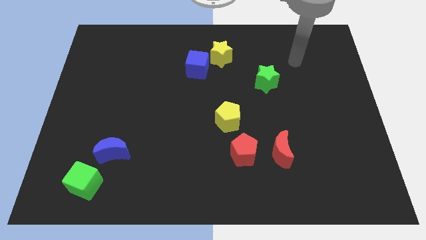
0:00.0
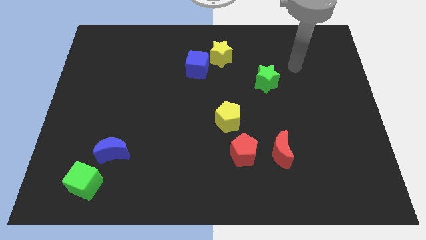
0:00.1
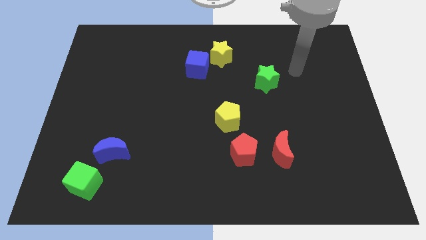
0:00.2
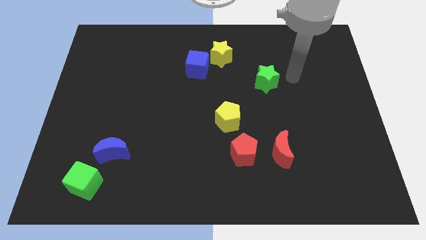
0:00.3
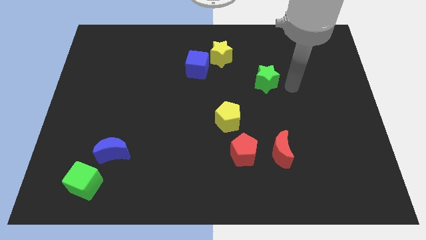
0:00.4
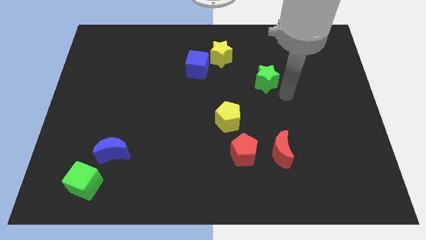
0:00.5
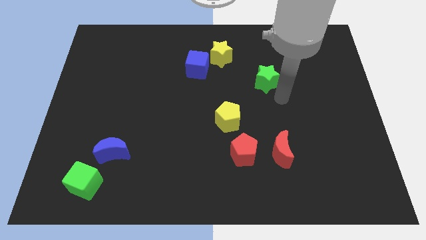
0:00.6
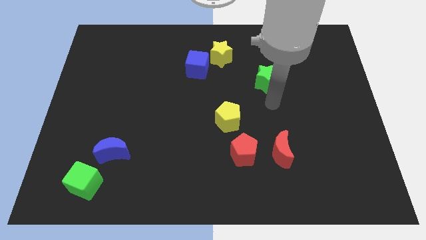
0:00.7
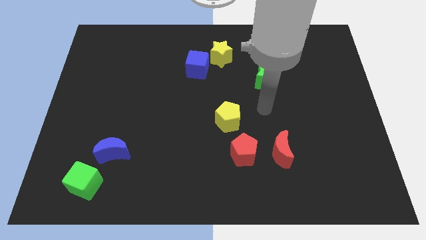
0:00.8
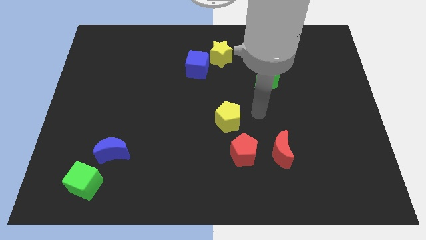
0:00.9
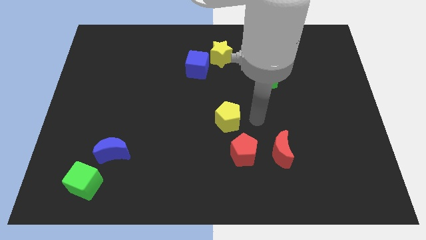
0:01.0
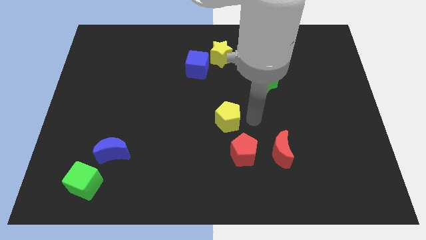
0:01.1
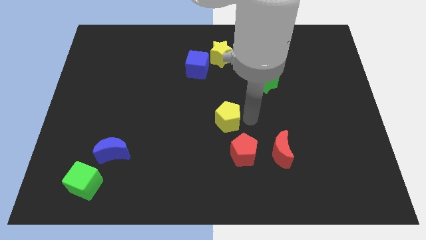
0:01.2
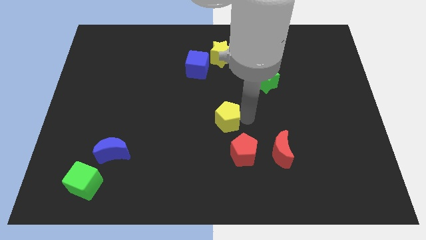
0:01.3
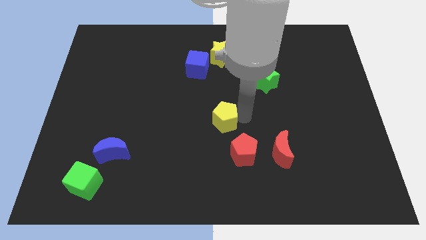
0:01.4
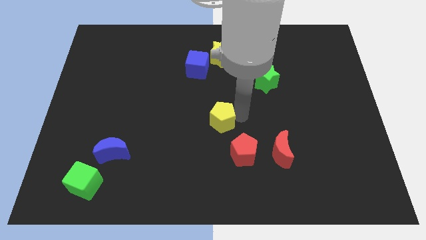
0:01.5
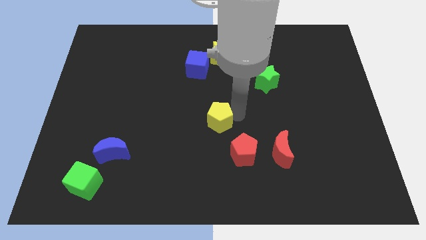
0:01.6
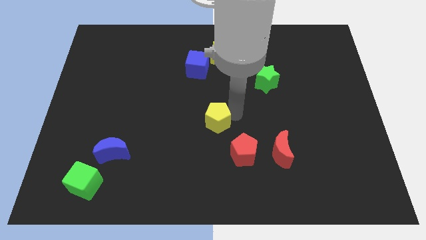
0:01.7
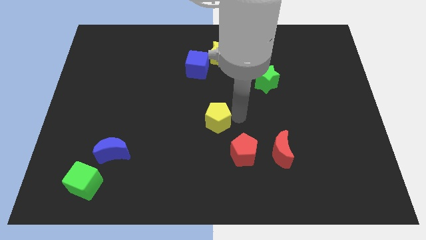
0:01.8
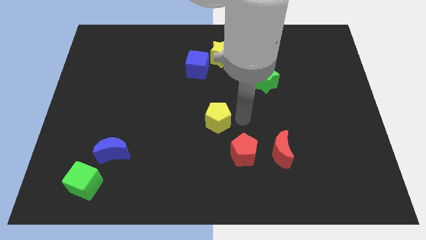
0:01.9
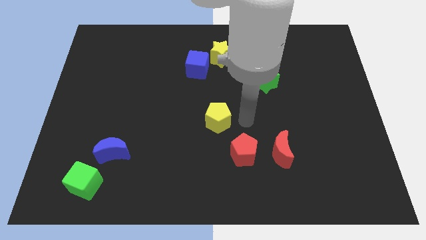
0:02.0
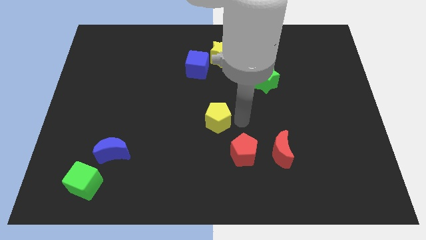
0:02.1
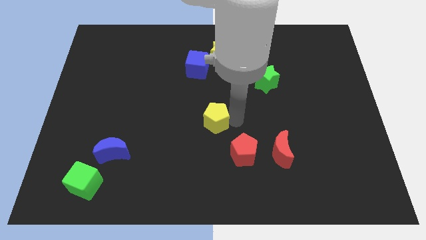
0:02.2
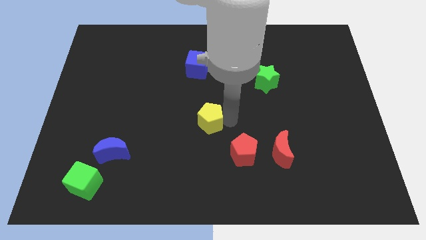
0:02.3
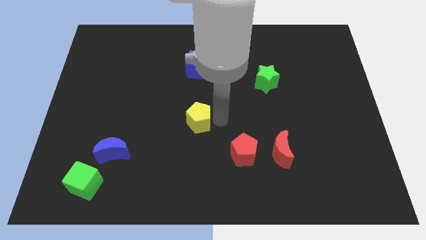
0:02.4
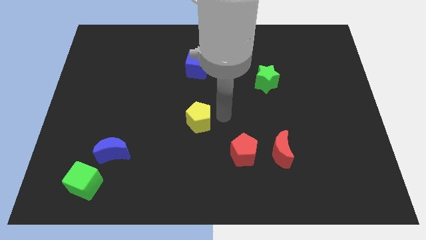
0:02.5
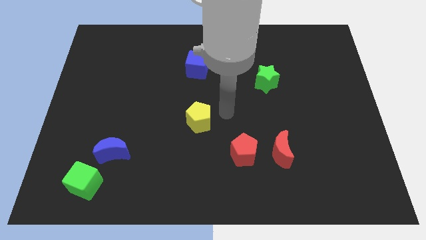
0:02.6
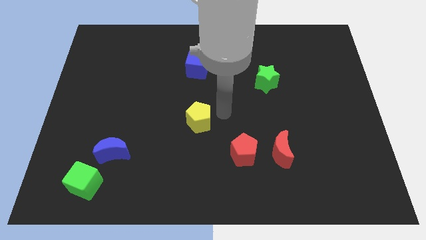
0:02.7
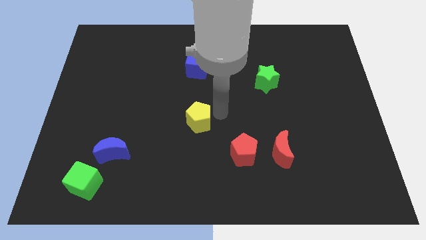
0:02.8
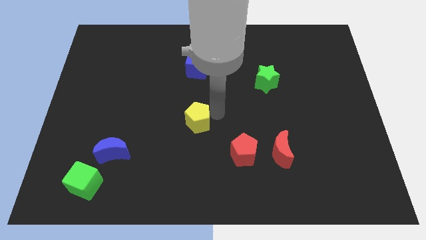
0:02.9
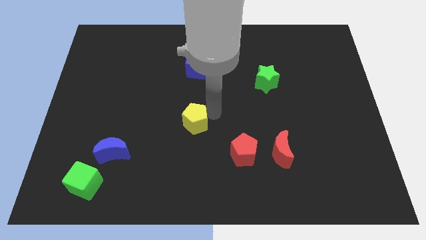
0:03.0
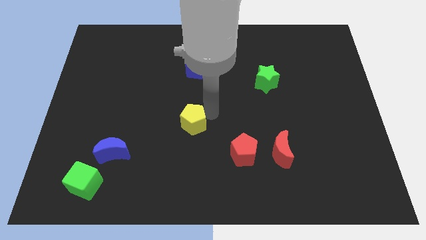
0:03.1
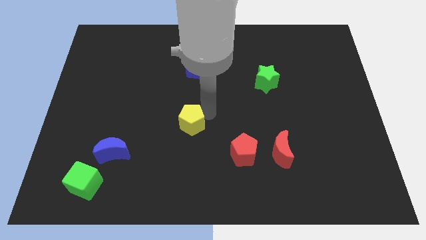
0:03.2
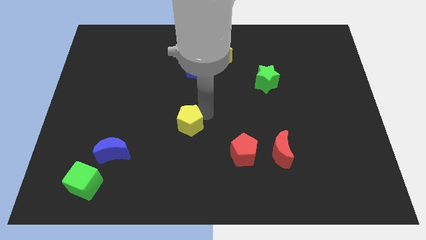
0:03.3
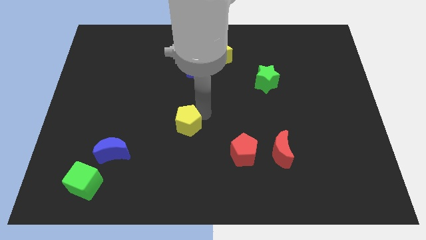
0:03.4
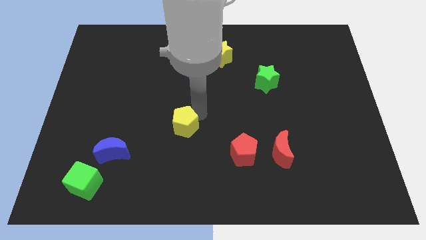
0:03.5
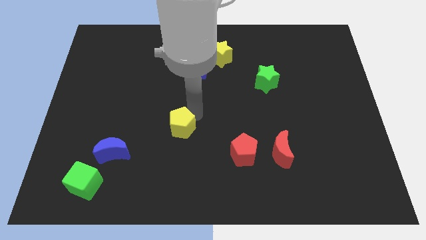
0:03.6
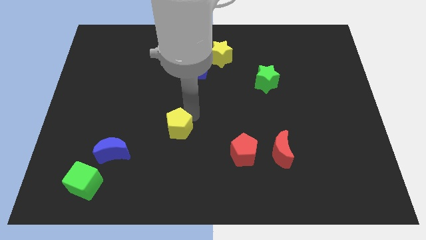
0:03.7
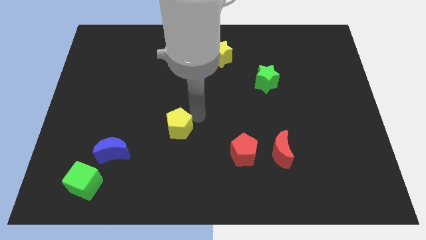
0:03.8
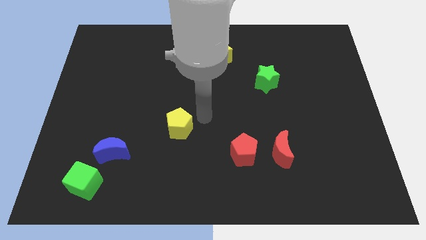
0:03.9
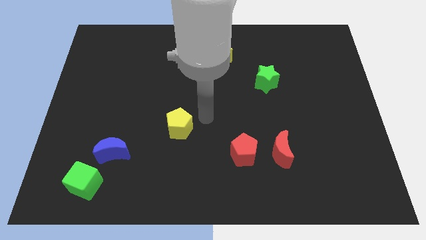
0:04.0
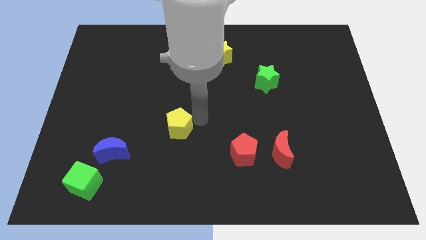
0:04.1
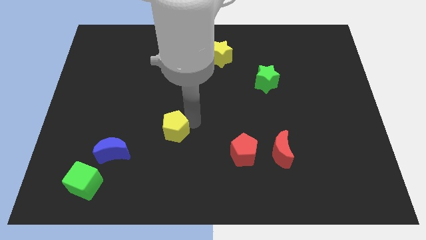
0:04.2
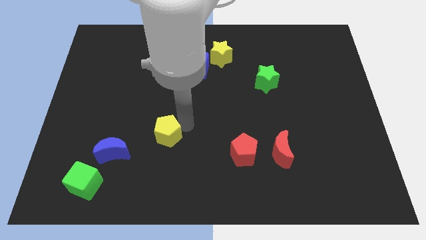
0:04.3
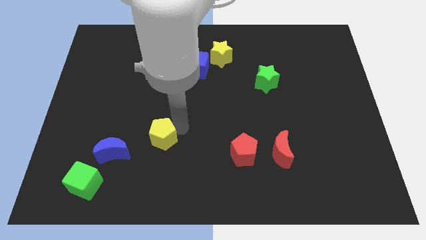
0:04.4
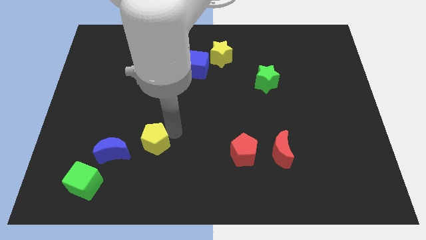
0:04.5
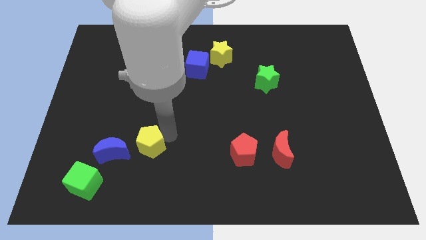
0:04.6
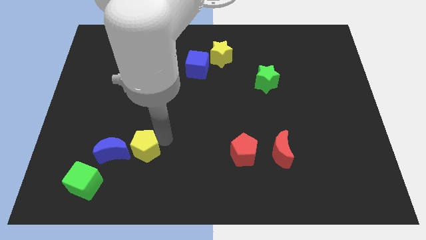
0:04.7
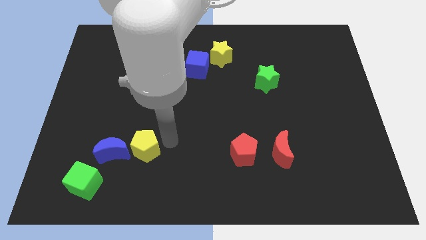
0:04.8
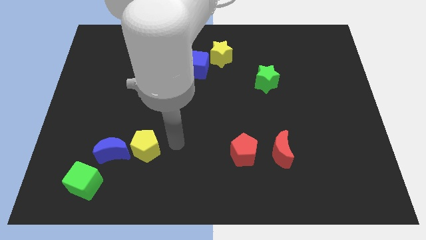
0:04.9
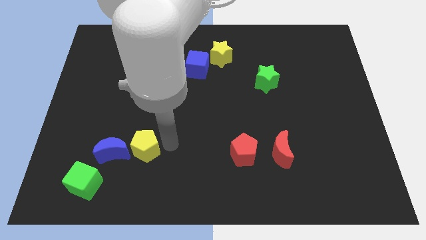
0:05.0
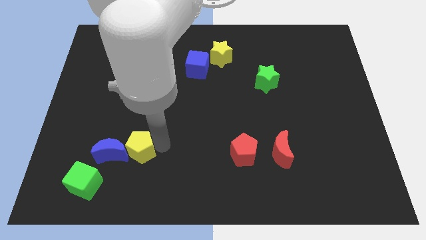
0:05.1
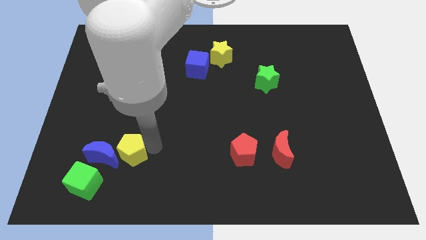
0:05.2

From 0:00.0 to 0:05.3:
put the yellow pentagon close to the blue moon

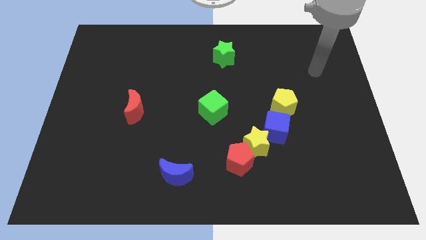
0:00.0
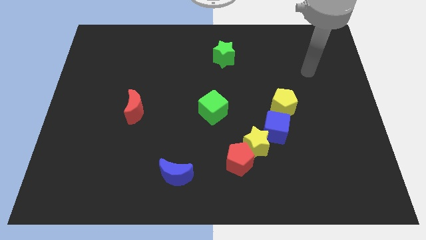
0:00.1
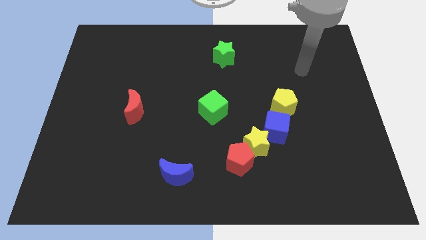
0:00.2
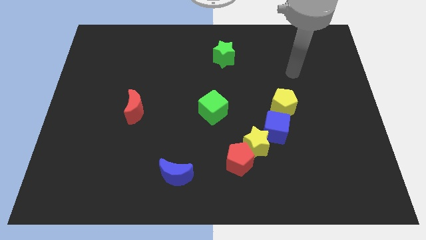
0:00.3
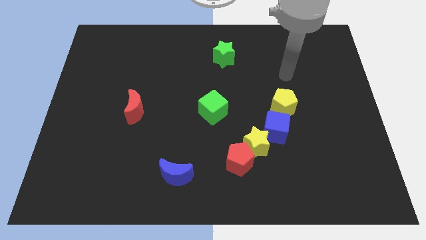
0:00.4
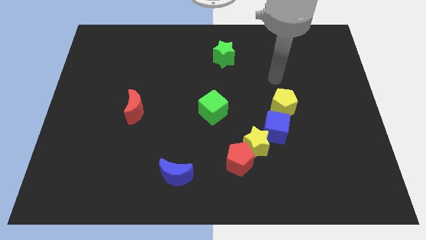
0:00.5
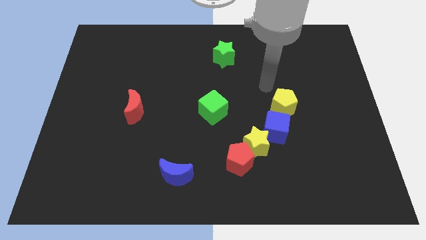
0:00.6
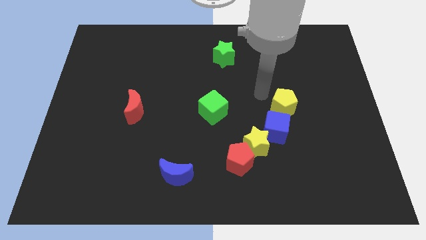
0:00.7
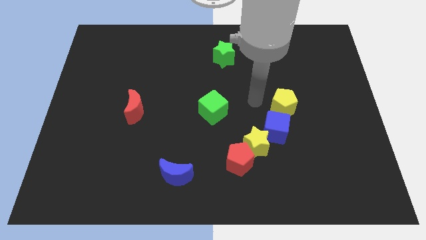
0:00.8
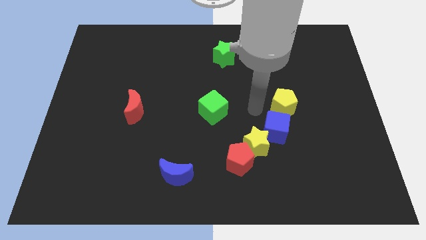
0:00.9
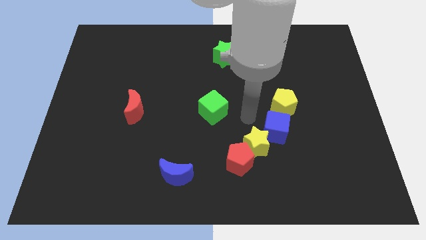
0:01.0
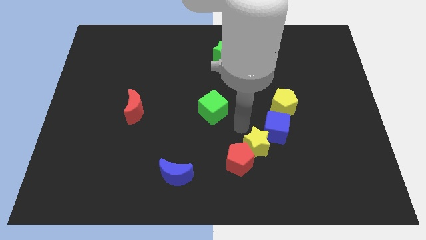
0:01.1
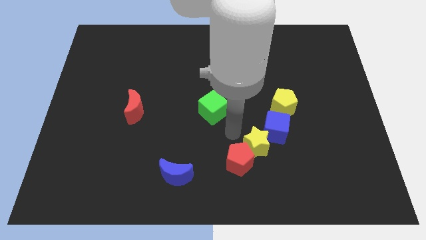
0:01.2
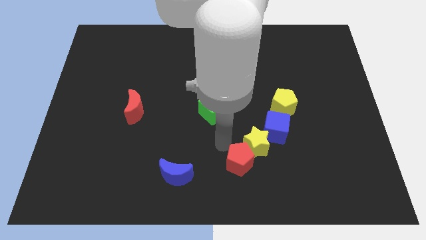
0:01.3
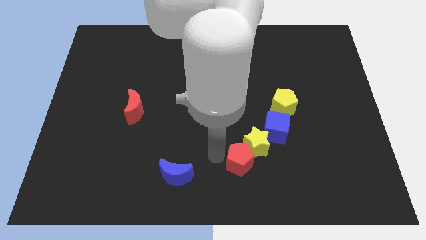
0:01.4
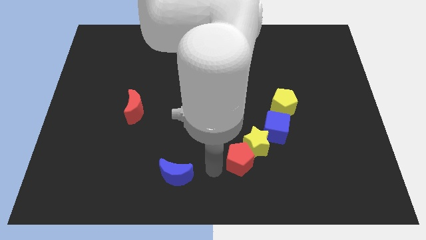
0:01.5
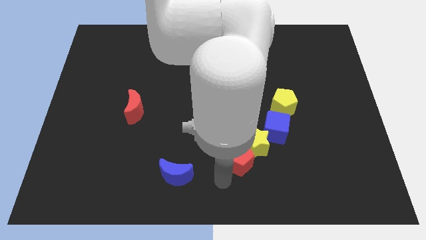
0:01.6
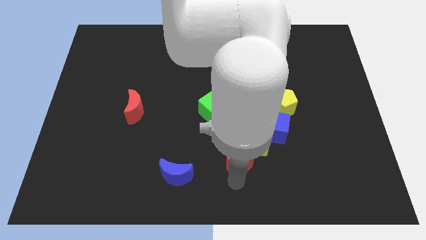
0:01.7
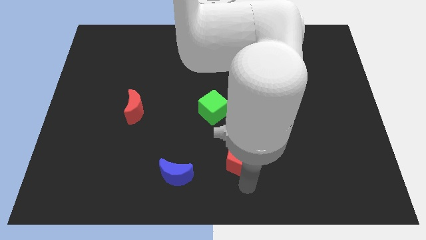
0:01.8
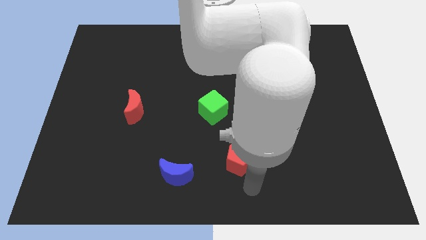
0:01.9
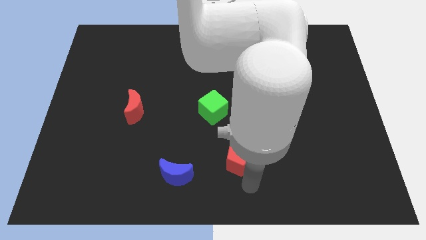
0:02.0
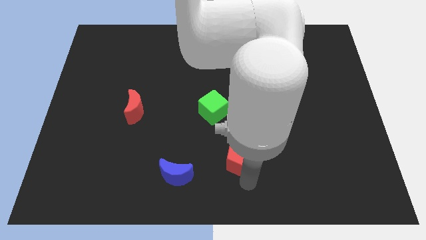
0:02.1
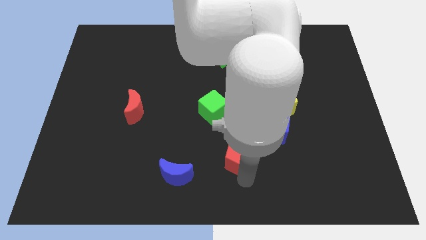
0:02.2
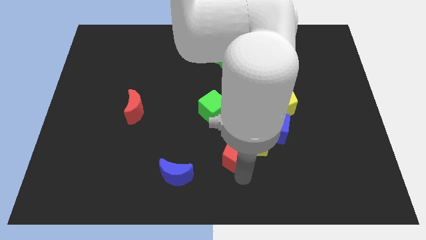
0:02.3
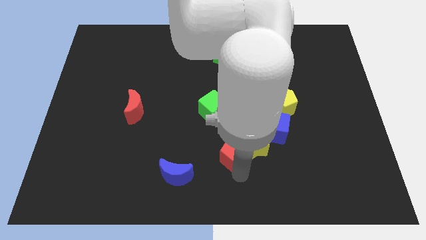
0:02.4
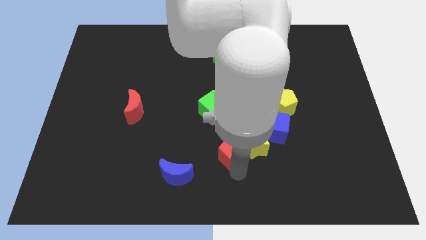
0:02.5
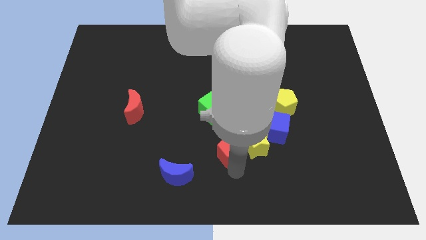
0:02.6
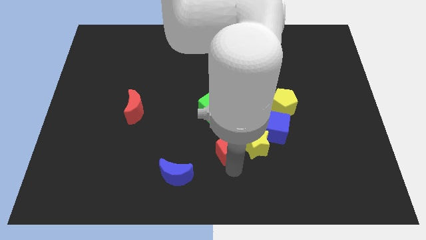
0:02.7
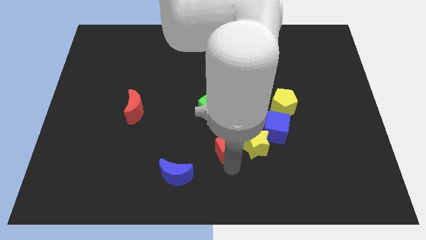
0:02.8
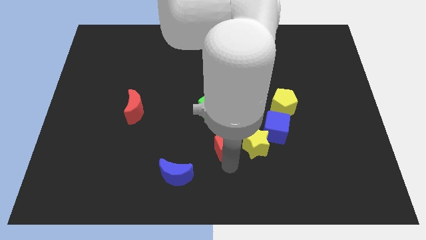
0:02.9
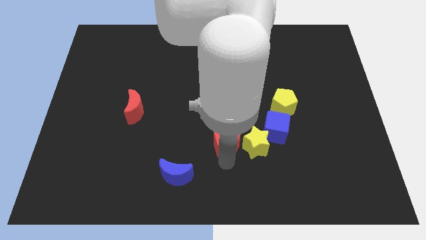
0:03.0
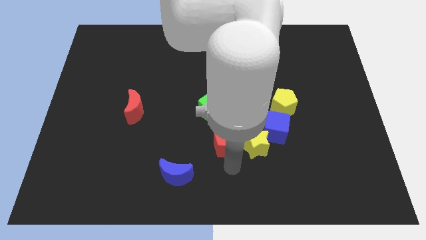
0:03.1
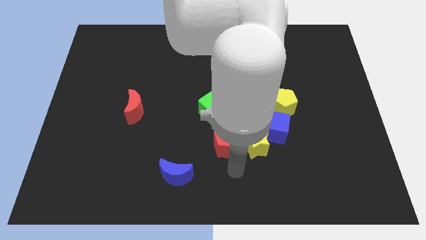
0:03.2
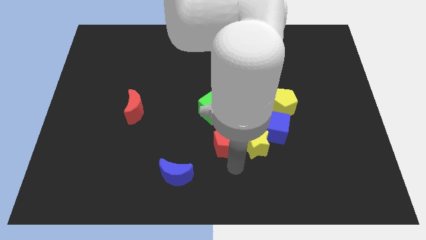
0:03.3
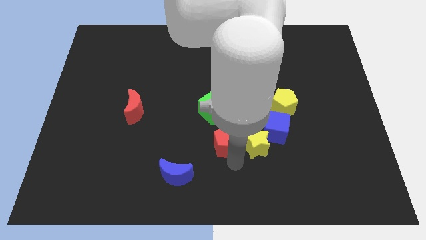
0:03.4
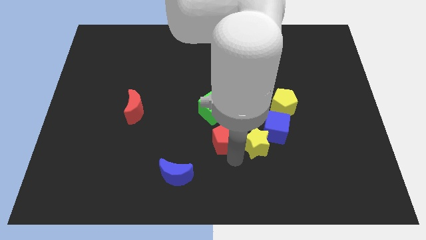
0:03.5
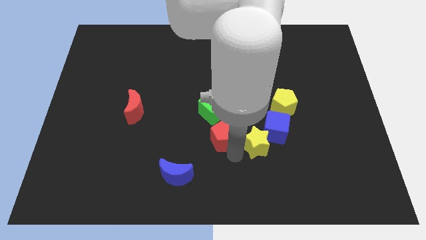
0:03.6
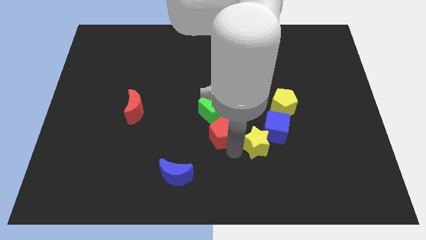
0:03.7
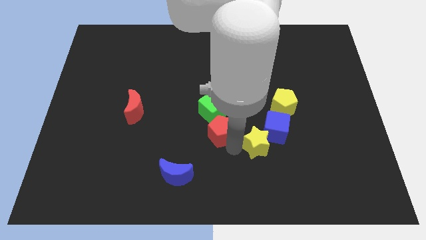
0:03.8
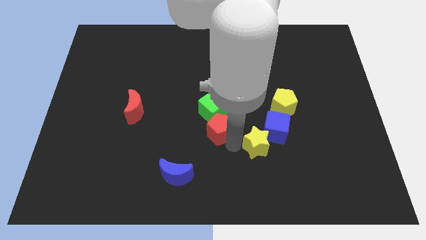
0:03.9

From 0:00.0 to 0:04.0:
slide the red pentagon towards the green cube
